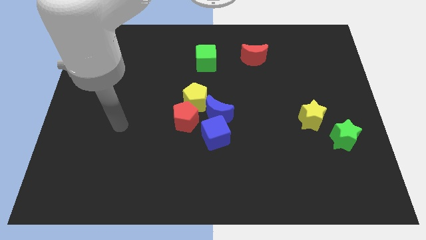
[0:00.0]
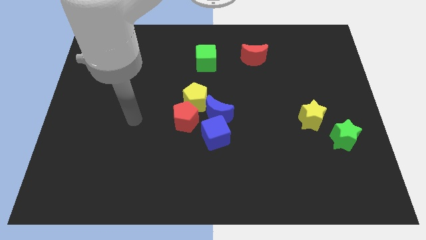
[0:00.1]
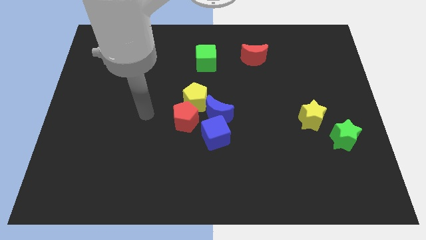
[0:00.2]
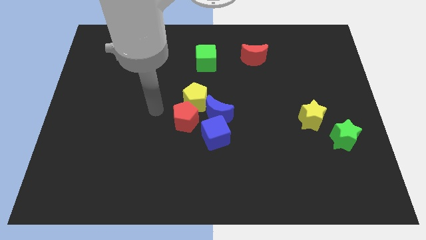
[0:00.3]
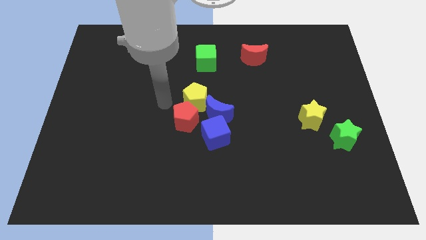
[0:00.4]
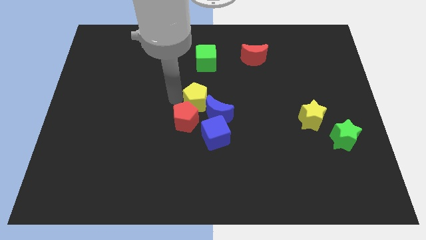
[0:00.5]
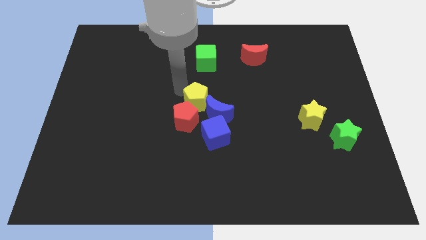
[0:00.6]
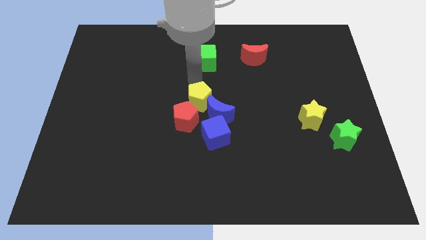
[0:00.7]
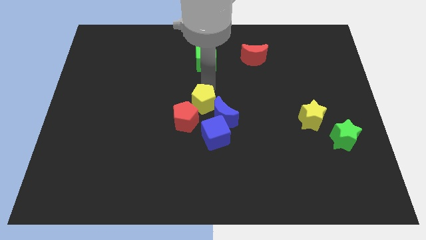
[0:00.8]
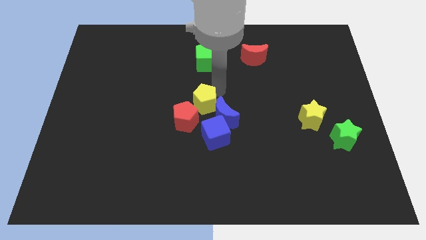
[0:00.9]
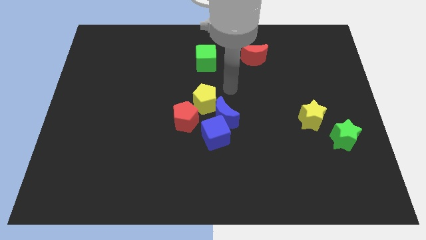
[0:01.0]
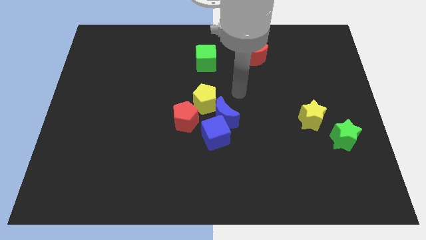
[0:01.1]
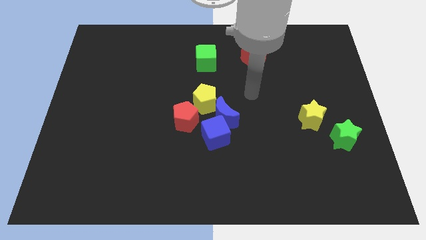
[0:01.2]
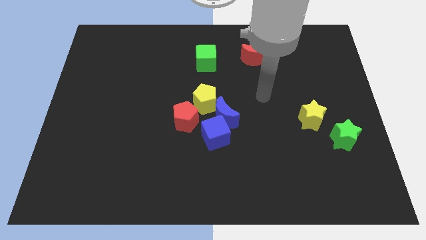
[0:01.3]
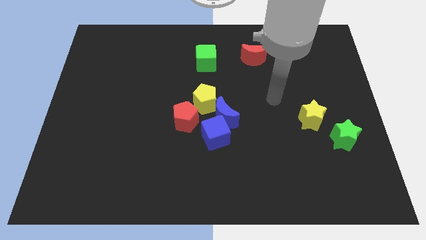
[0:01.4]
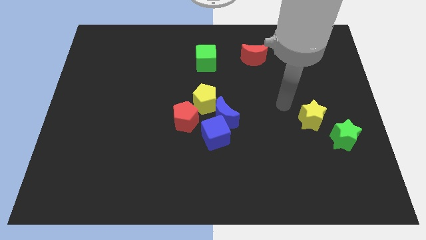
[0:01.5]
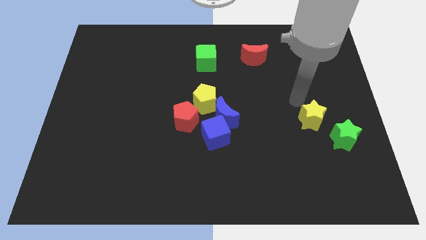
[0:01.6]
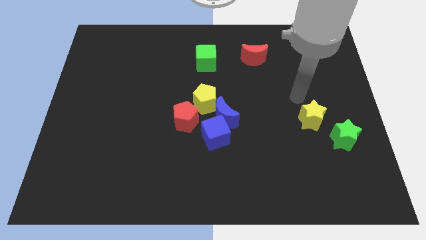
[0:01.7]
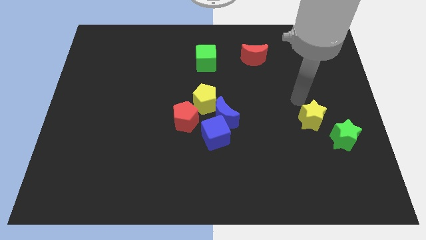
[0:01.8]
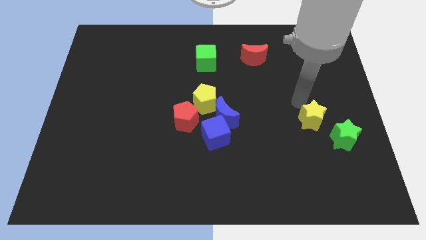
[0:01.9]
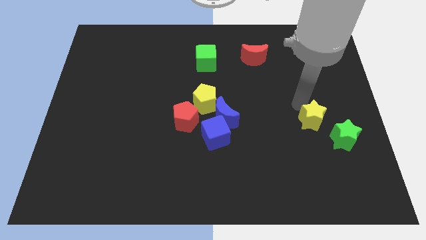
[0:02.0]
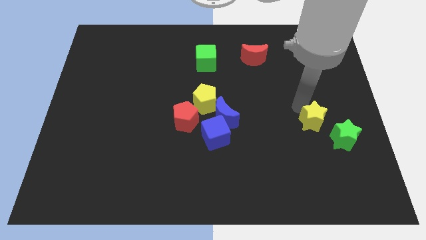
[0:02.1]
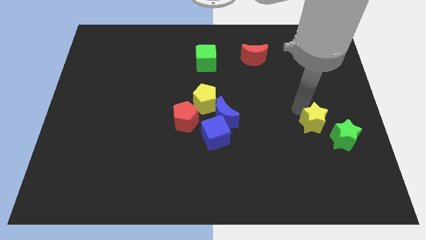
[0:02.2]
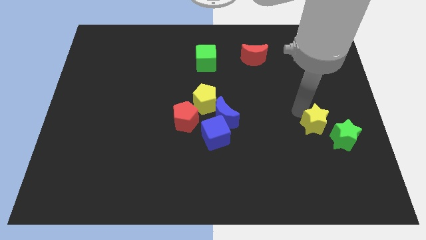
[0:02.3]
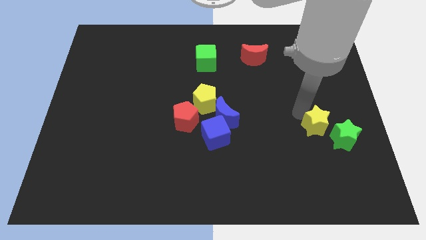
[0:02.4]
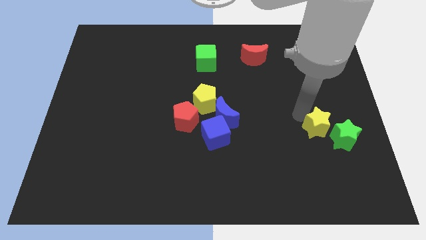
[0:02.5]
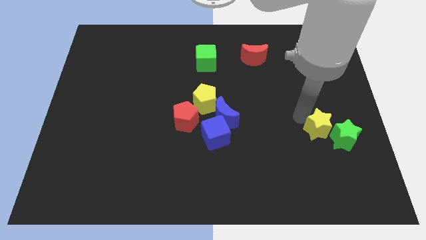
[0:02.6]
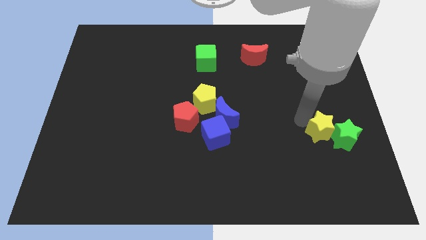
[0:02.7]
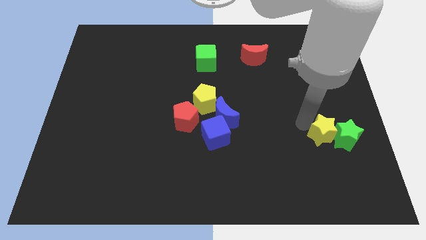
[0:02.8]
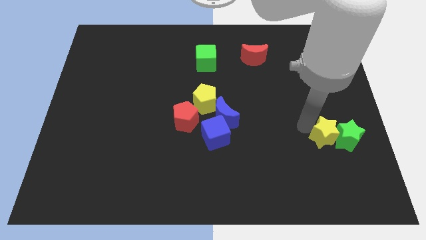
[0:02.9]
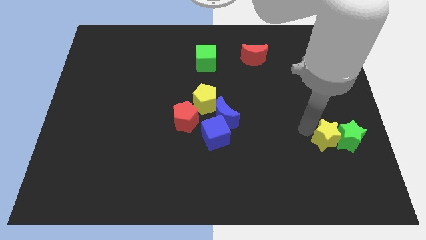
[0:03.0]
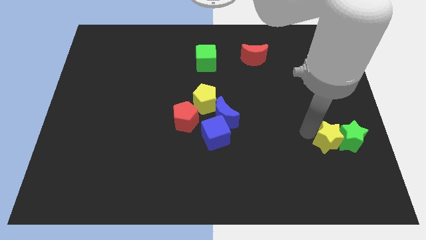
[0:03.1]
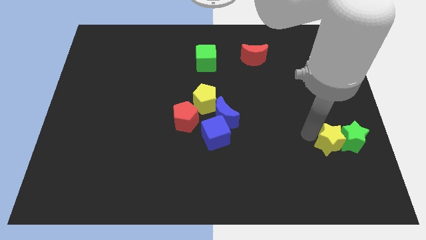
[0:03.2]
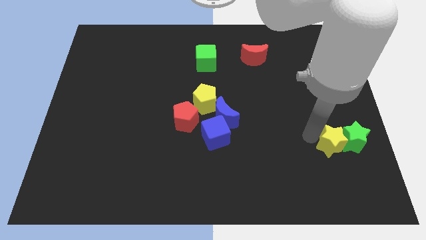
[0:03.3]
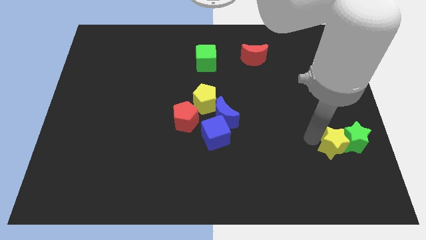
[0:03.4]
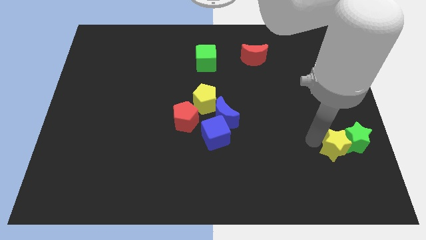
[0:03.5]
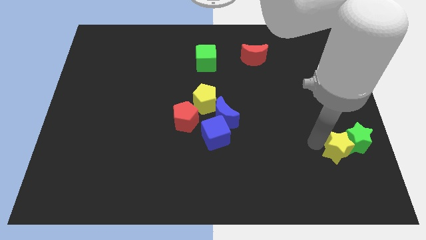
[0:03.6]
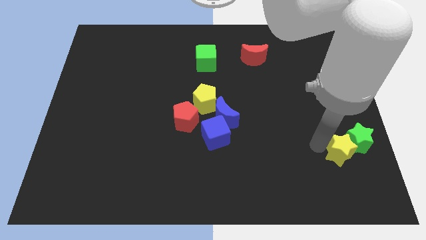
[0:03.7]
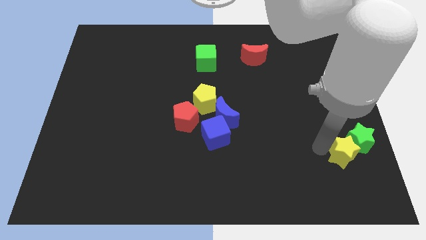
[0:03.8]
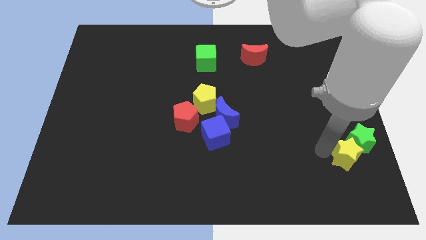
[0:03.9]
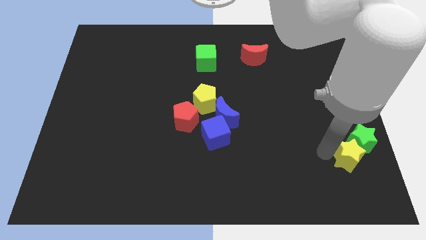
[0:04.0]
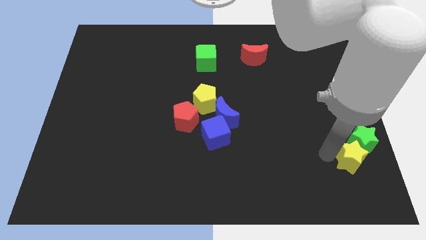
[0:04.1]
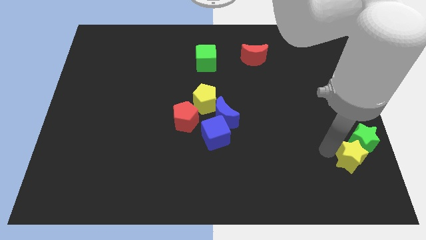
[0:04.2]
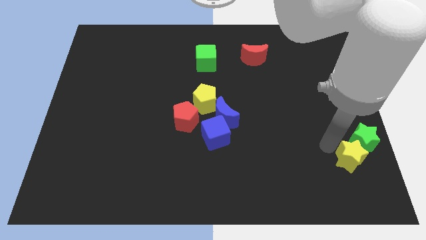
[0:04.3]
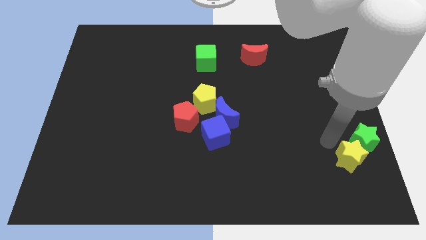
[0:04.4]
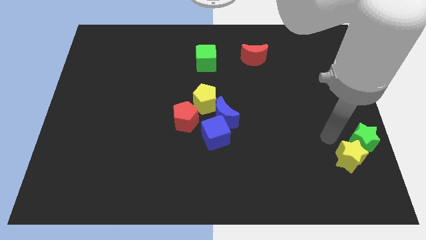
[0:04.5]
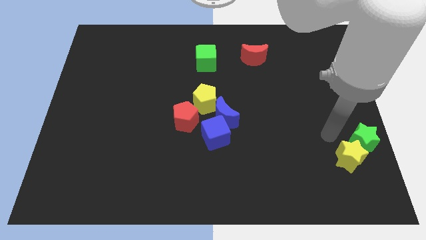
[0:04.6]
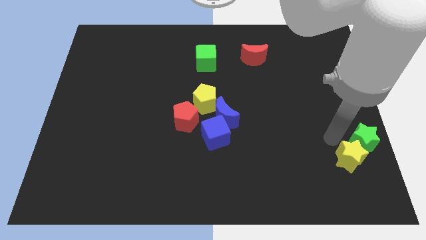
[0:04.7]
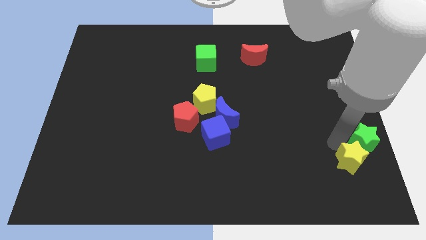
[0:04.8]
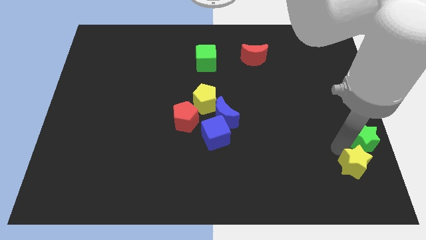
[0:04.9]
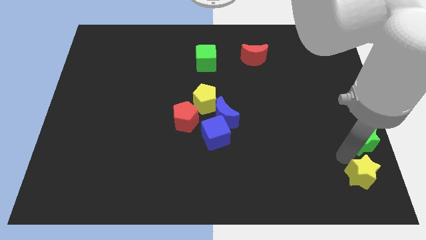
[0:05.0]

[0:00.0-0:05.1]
push the yellow star to the bottom right corner

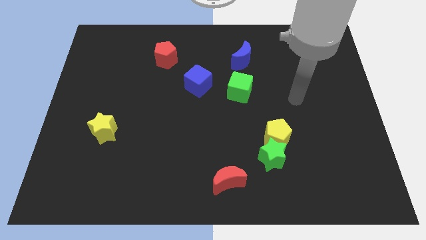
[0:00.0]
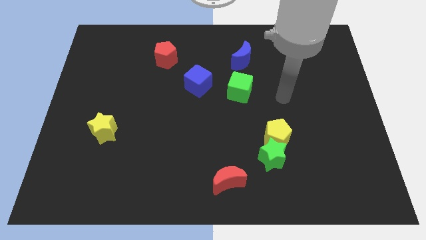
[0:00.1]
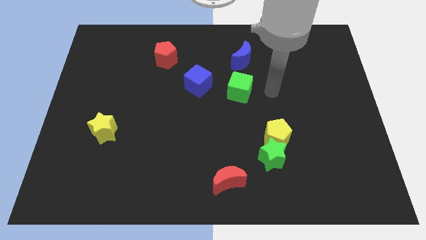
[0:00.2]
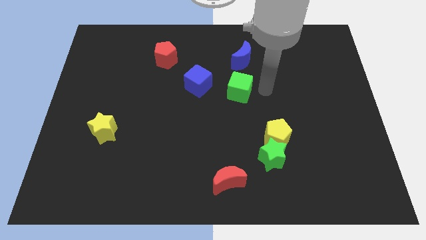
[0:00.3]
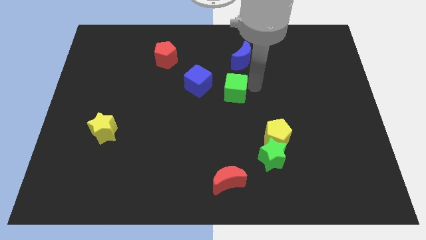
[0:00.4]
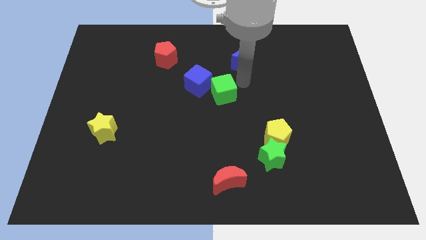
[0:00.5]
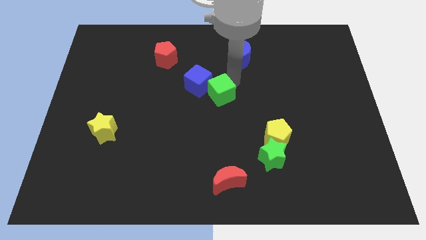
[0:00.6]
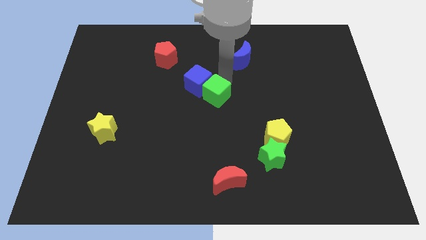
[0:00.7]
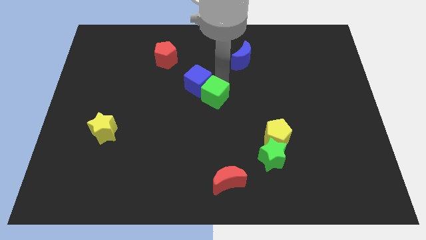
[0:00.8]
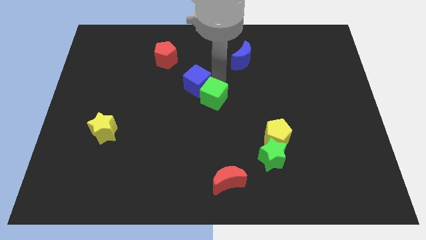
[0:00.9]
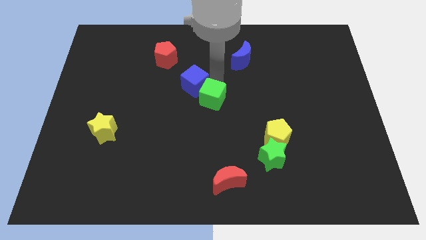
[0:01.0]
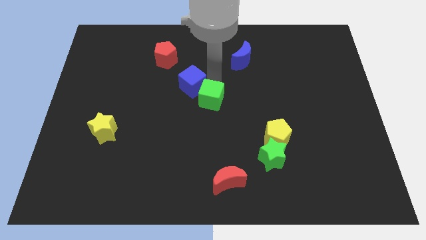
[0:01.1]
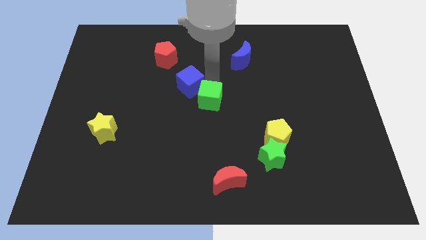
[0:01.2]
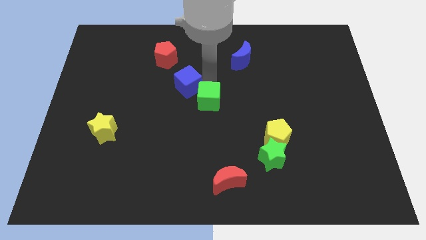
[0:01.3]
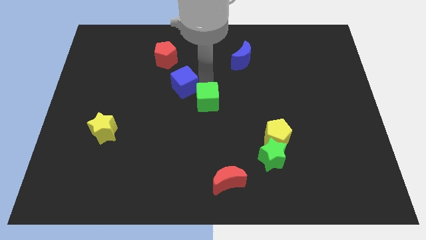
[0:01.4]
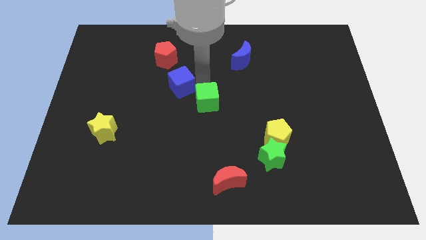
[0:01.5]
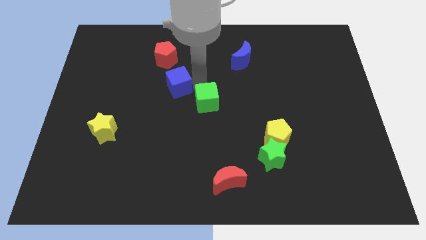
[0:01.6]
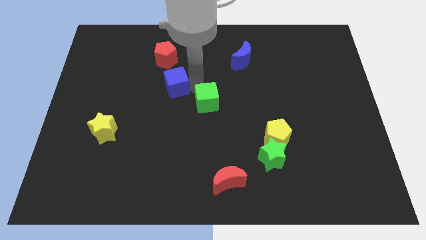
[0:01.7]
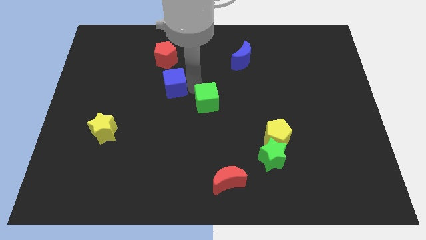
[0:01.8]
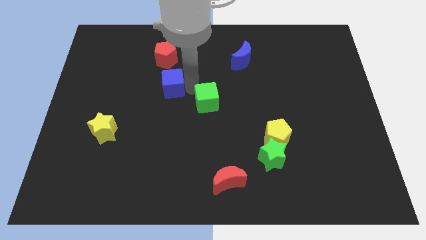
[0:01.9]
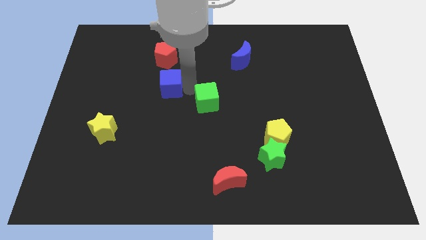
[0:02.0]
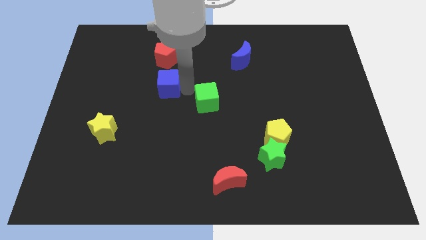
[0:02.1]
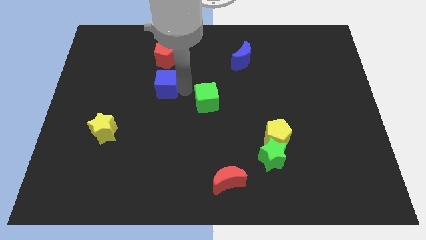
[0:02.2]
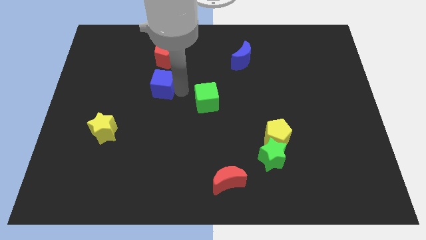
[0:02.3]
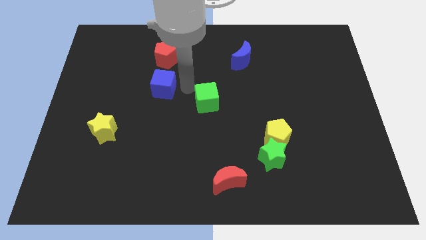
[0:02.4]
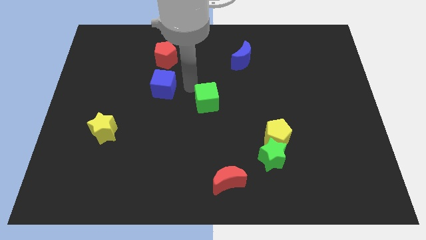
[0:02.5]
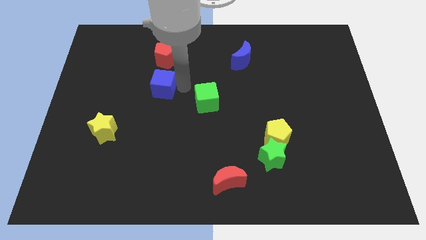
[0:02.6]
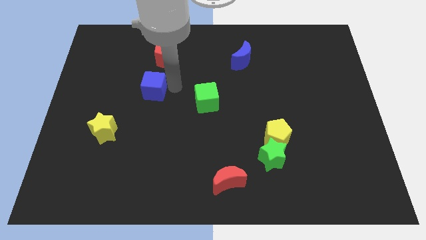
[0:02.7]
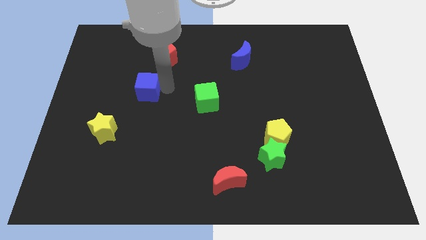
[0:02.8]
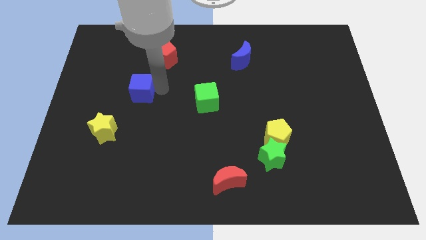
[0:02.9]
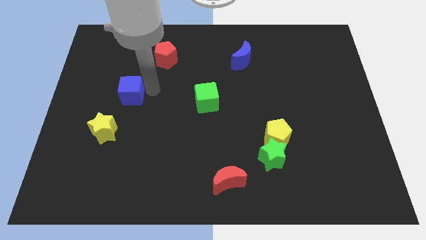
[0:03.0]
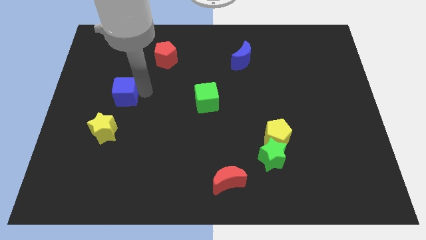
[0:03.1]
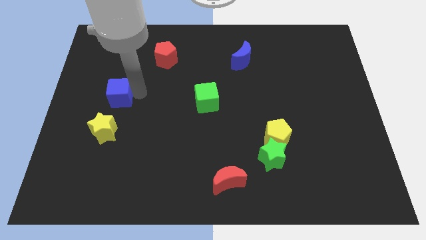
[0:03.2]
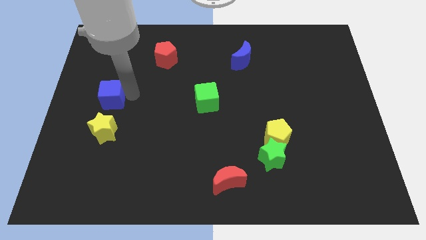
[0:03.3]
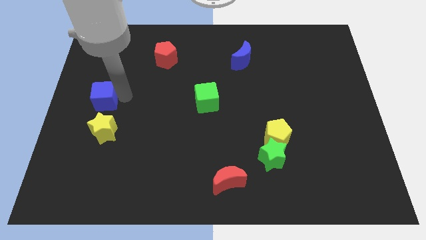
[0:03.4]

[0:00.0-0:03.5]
move the blue cube to the center left
